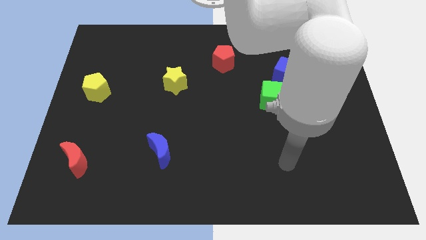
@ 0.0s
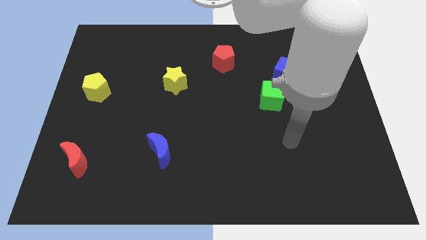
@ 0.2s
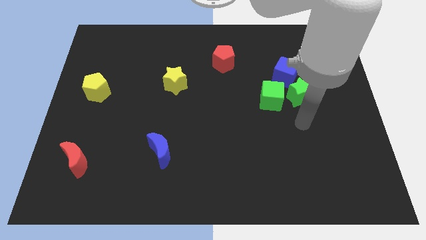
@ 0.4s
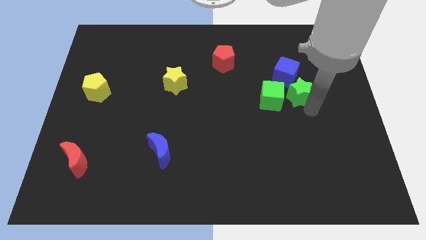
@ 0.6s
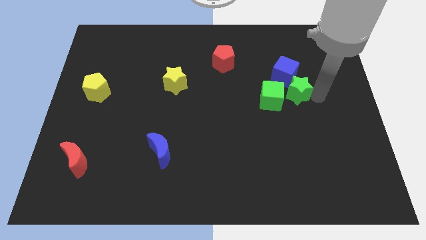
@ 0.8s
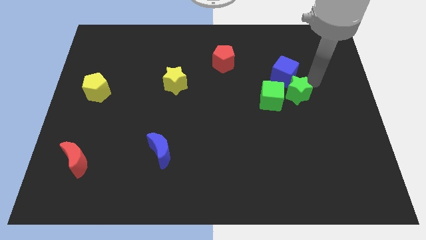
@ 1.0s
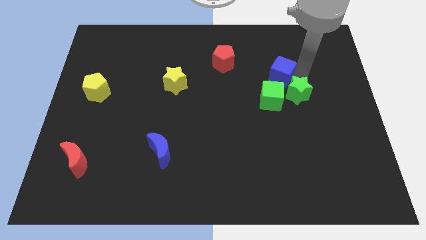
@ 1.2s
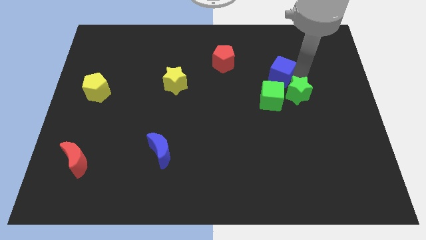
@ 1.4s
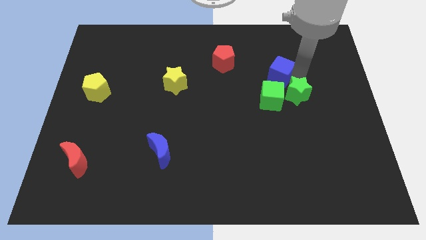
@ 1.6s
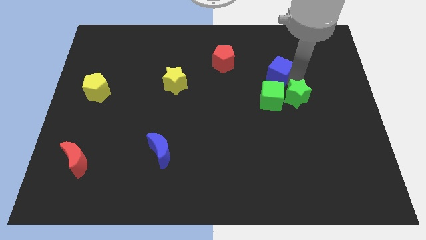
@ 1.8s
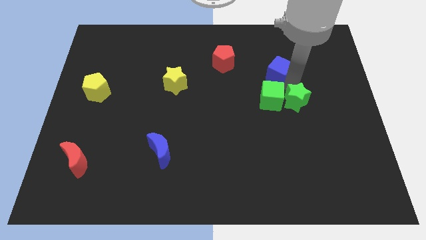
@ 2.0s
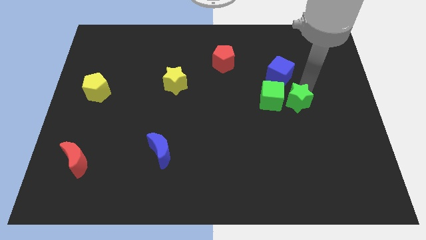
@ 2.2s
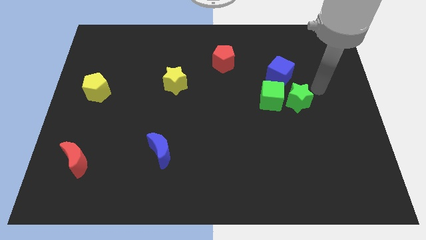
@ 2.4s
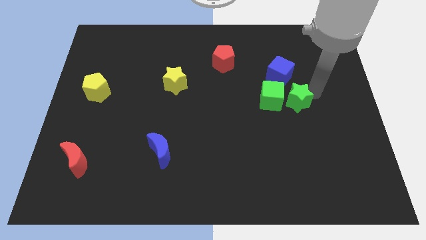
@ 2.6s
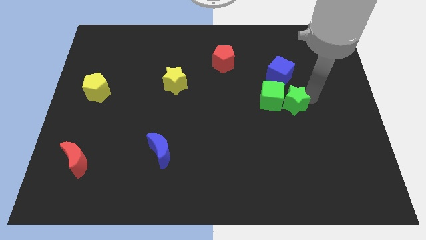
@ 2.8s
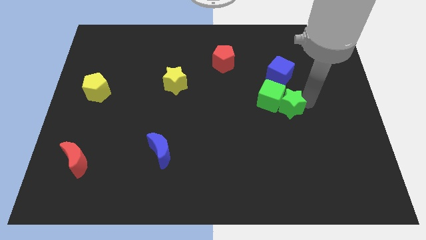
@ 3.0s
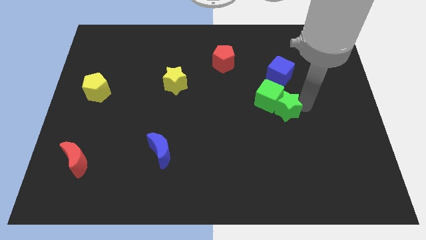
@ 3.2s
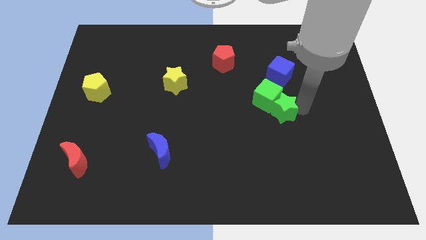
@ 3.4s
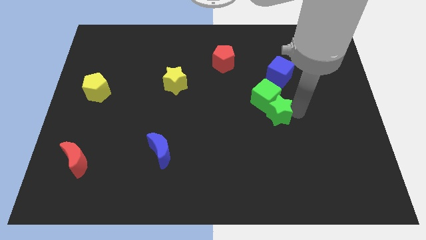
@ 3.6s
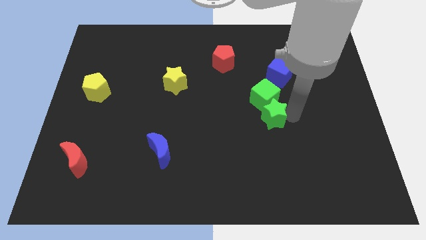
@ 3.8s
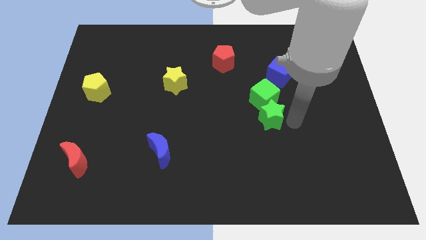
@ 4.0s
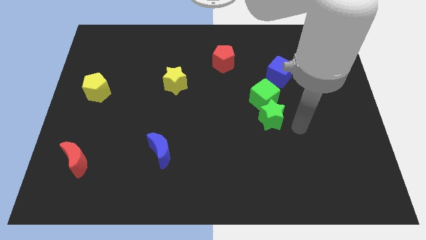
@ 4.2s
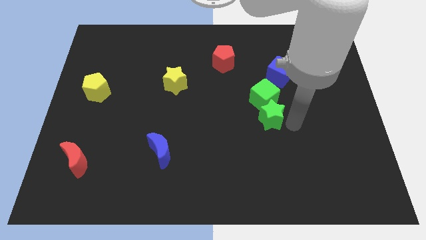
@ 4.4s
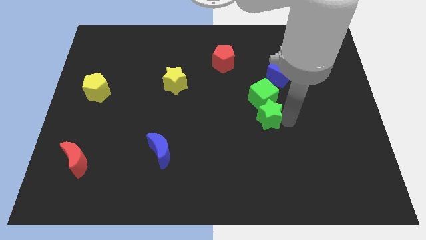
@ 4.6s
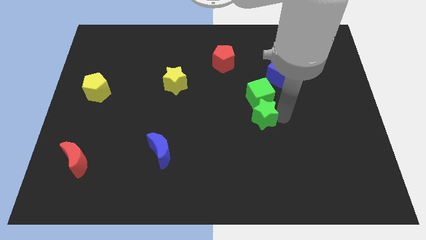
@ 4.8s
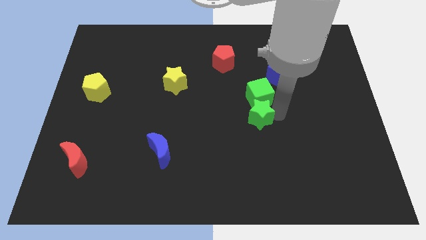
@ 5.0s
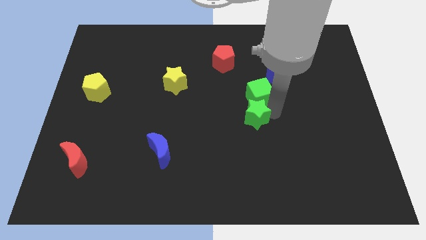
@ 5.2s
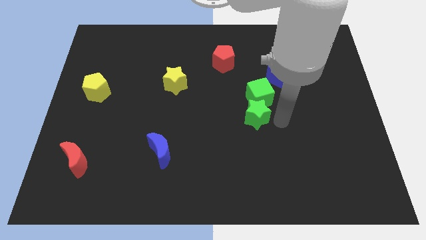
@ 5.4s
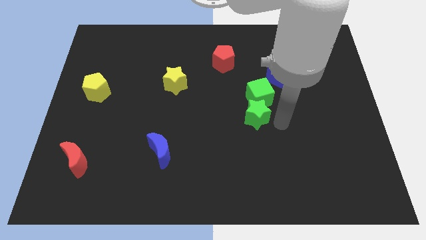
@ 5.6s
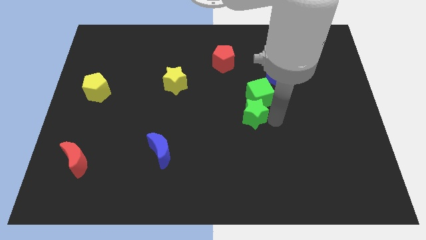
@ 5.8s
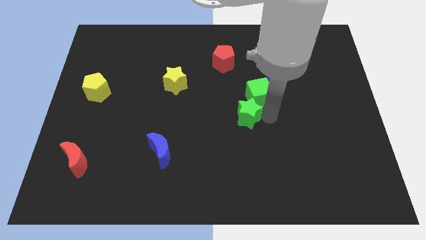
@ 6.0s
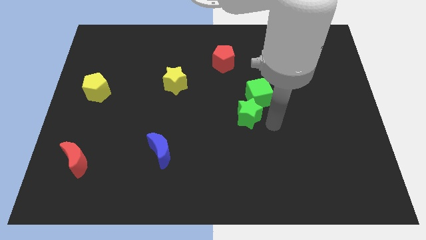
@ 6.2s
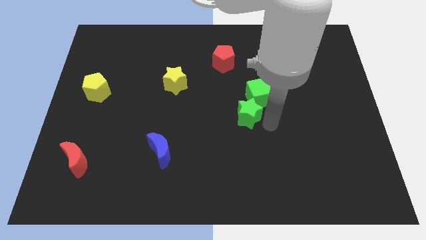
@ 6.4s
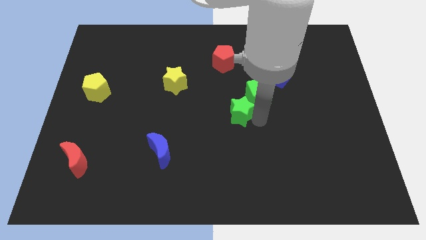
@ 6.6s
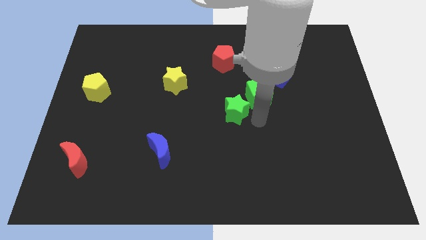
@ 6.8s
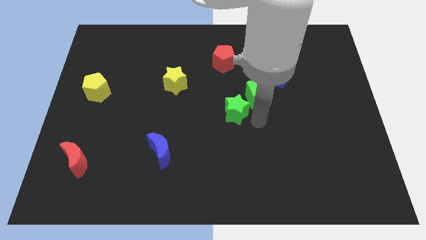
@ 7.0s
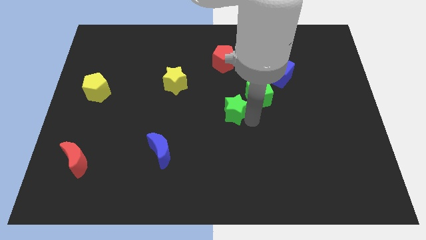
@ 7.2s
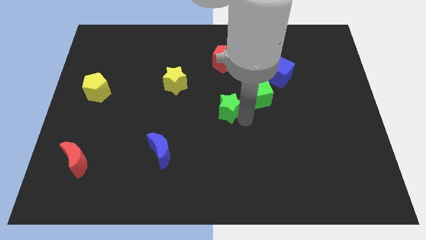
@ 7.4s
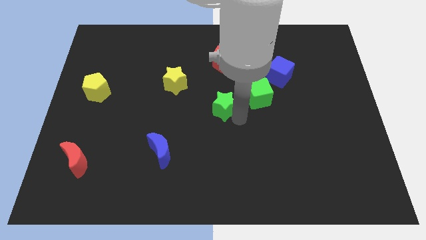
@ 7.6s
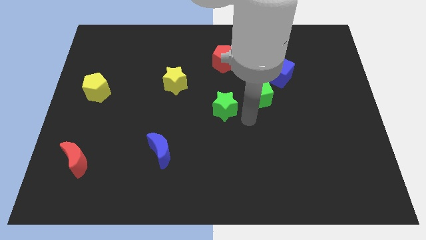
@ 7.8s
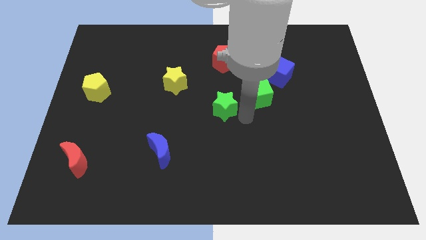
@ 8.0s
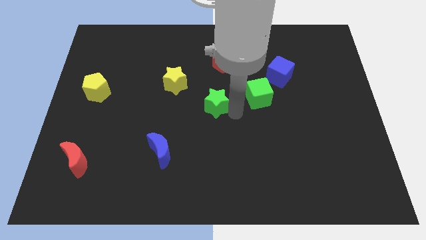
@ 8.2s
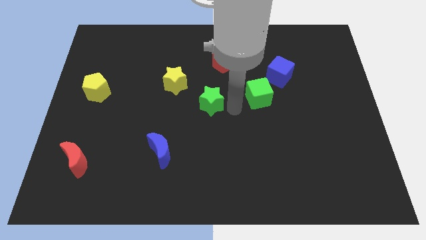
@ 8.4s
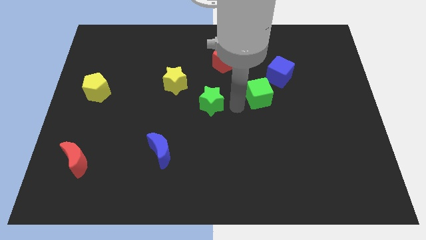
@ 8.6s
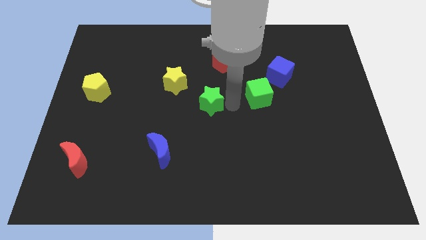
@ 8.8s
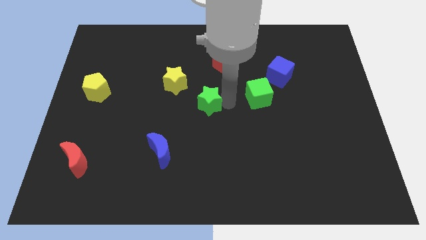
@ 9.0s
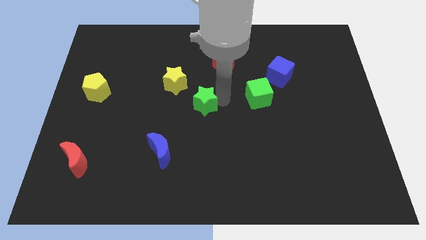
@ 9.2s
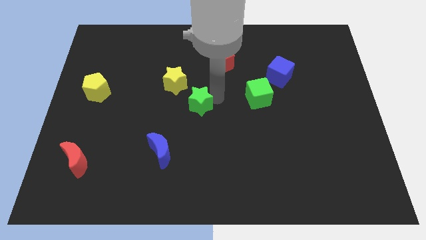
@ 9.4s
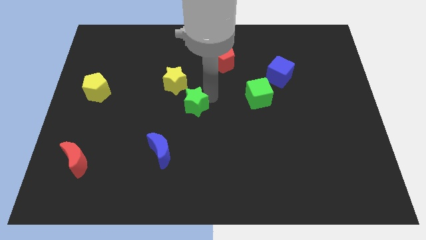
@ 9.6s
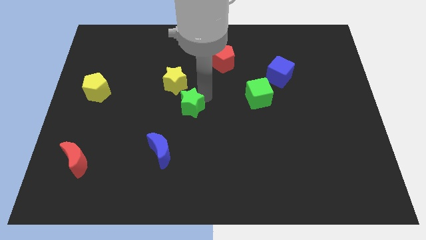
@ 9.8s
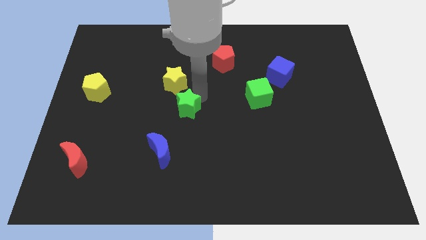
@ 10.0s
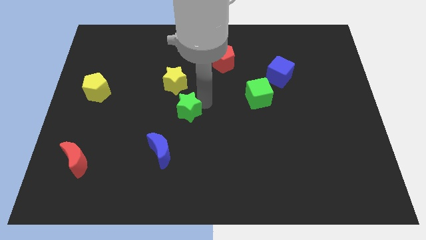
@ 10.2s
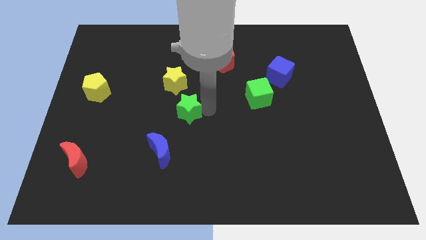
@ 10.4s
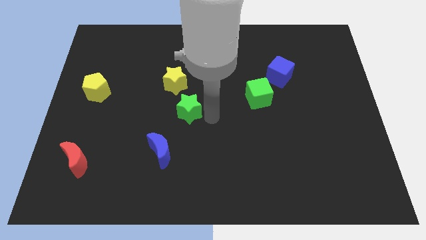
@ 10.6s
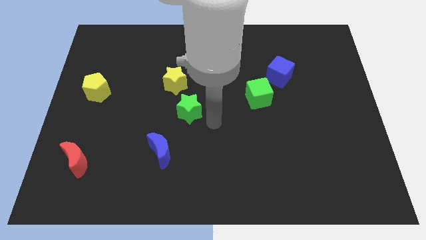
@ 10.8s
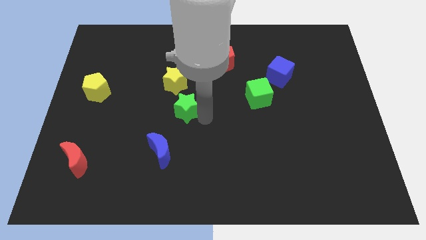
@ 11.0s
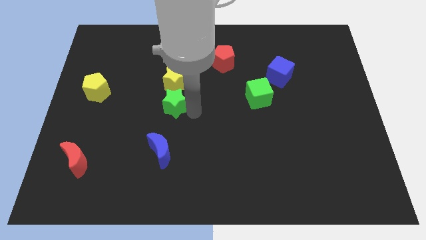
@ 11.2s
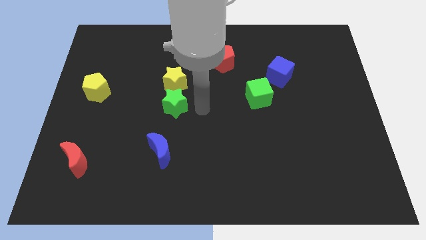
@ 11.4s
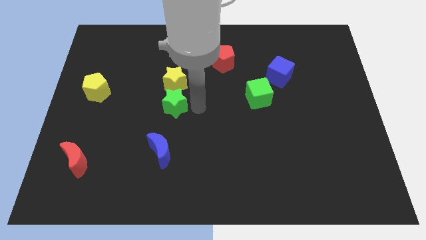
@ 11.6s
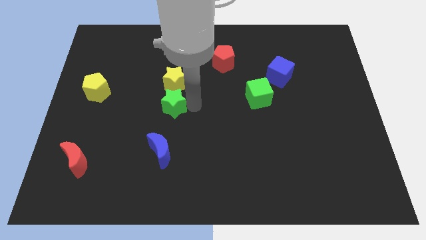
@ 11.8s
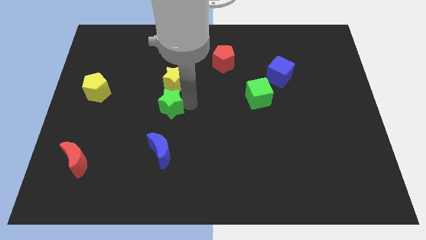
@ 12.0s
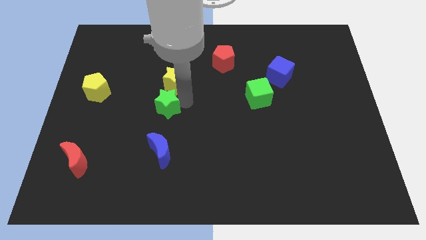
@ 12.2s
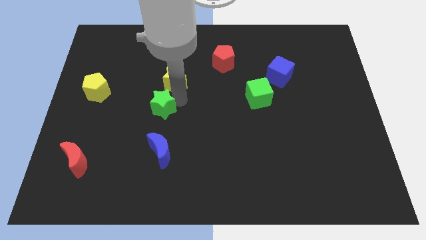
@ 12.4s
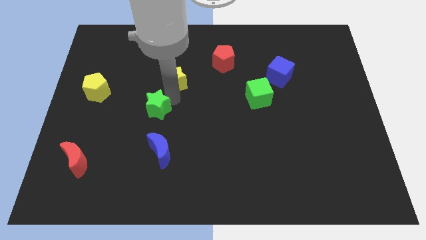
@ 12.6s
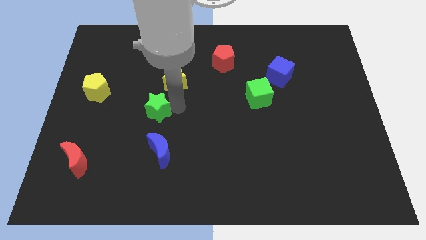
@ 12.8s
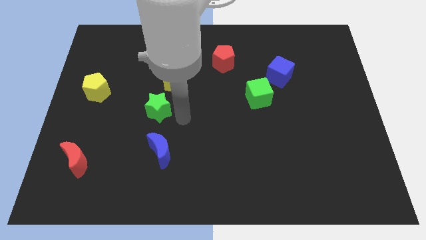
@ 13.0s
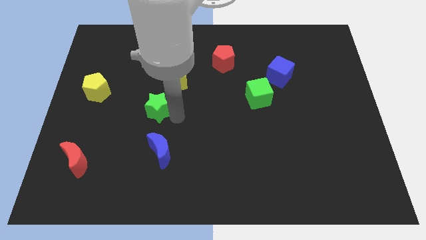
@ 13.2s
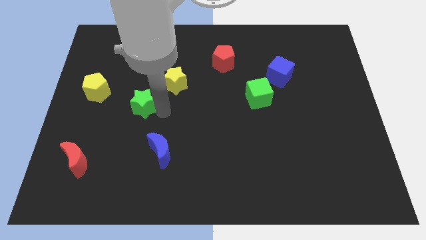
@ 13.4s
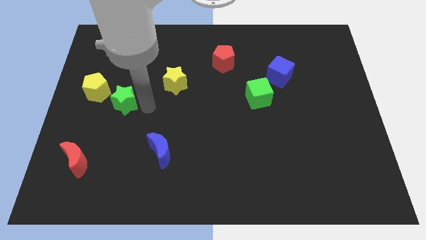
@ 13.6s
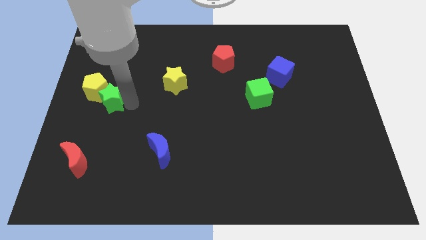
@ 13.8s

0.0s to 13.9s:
put the green star close to the yellow pentagon
